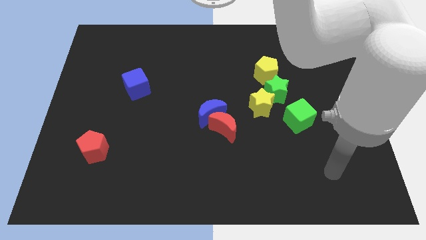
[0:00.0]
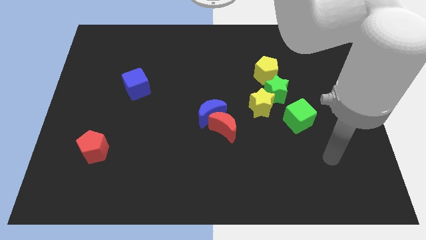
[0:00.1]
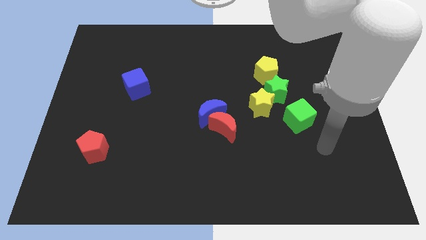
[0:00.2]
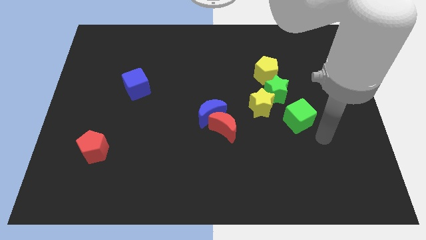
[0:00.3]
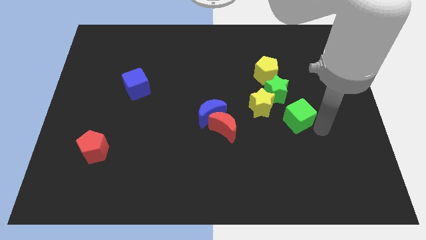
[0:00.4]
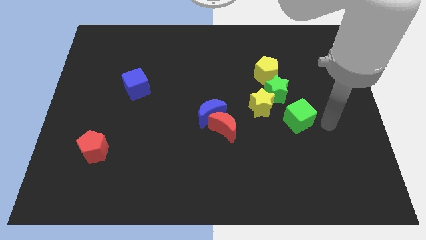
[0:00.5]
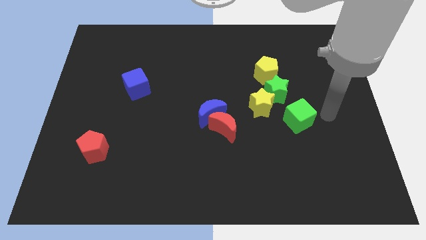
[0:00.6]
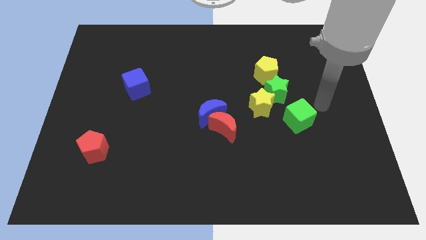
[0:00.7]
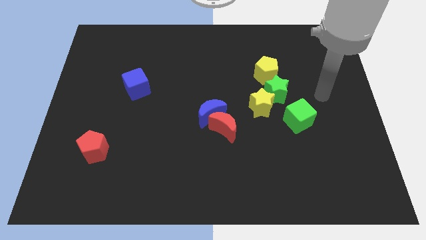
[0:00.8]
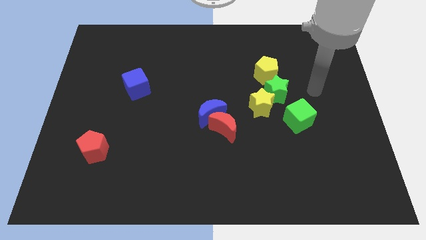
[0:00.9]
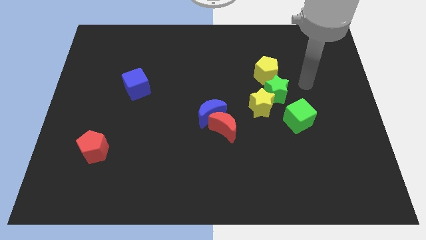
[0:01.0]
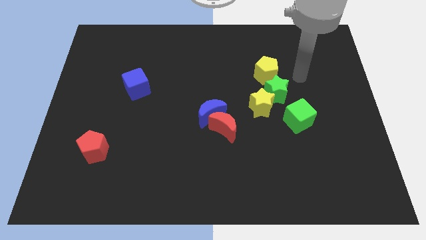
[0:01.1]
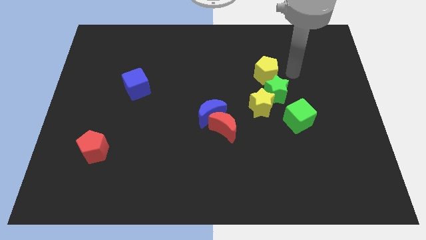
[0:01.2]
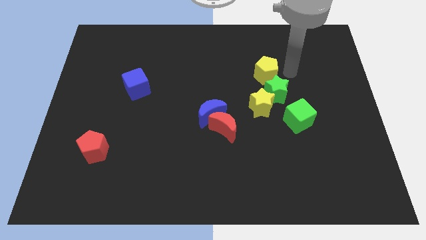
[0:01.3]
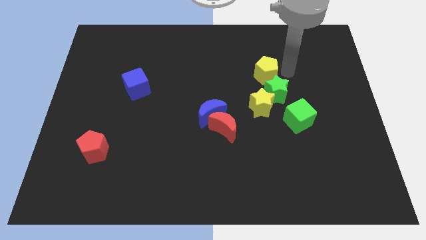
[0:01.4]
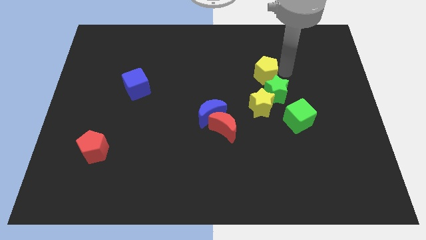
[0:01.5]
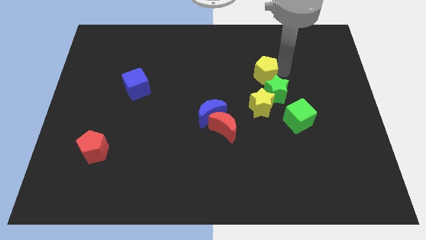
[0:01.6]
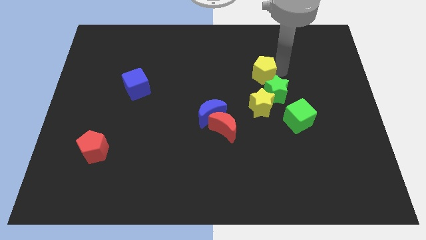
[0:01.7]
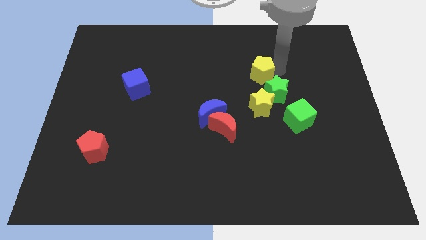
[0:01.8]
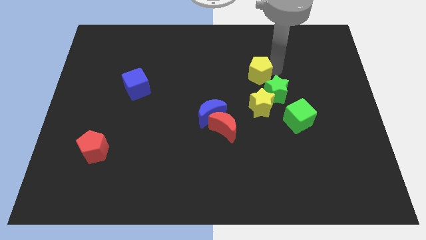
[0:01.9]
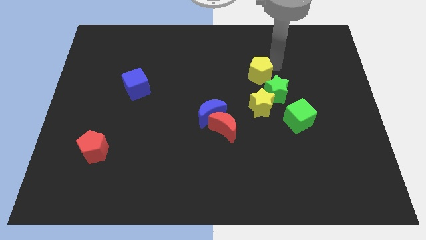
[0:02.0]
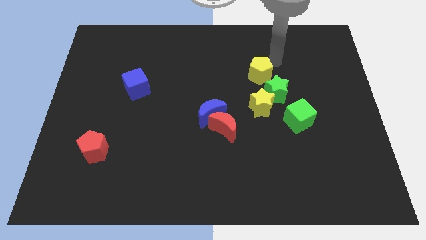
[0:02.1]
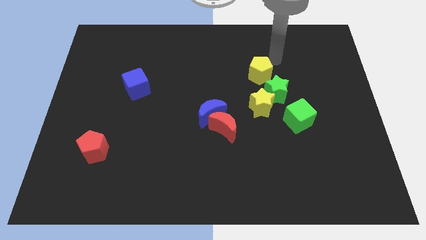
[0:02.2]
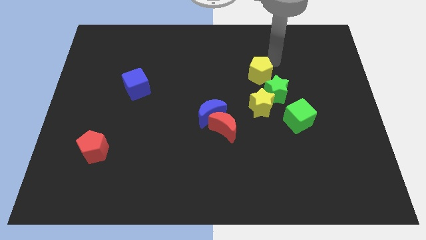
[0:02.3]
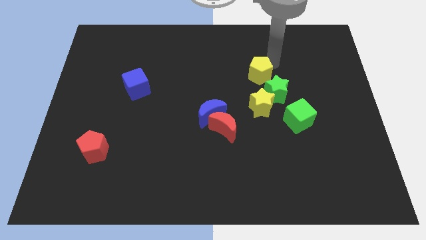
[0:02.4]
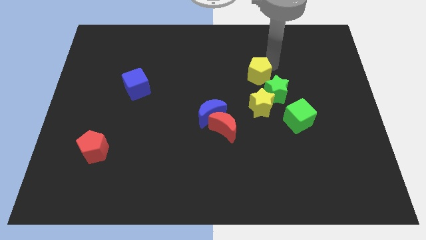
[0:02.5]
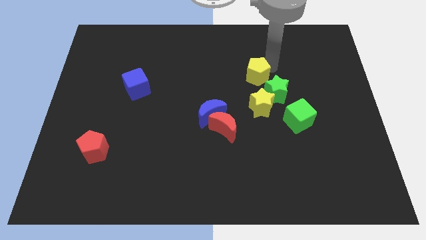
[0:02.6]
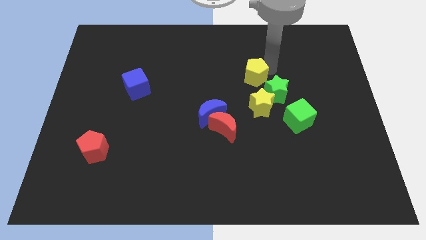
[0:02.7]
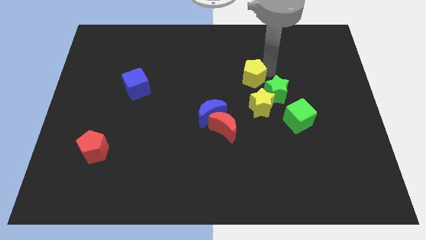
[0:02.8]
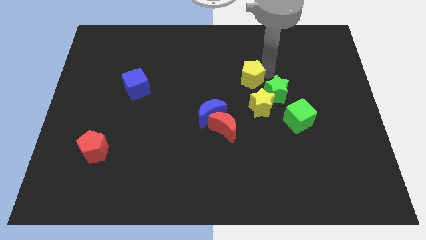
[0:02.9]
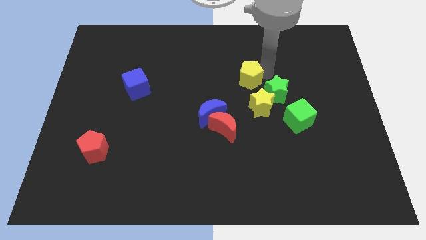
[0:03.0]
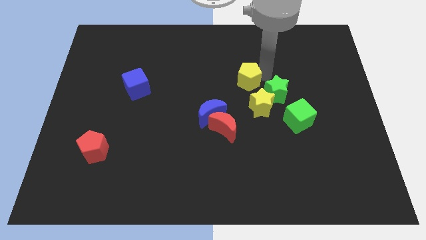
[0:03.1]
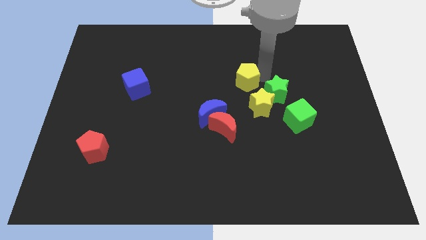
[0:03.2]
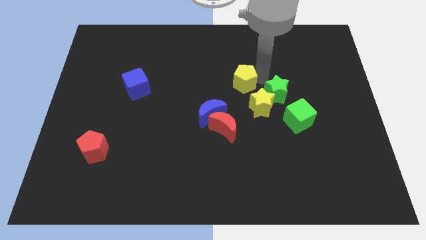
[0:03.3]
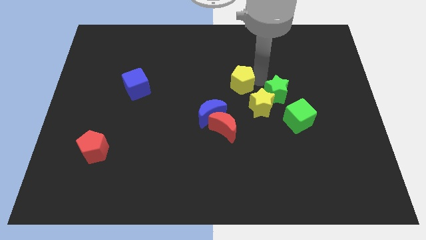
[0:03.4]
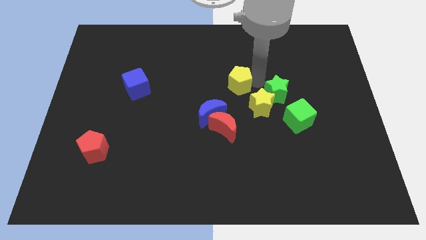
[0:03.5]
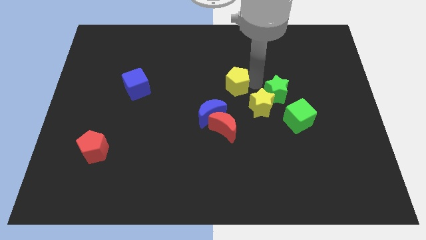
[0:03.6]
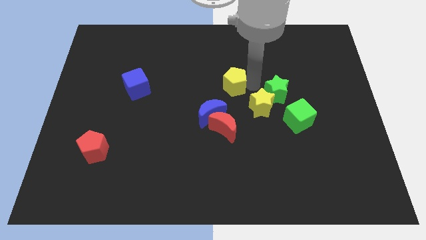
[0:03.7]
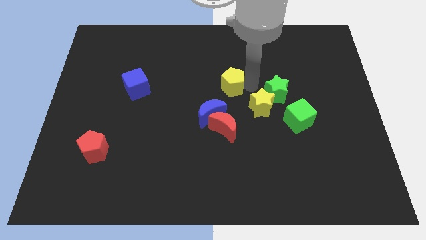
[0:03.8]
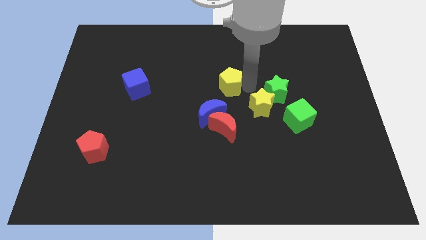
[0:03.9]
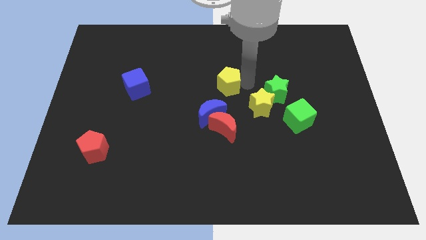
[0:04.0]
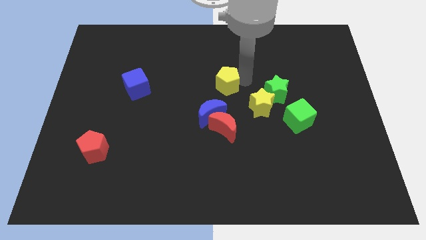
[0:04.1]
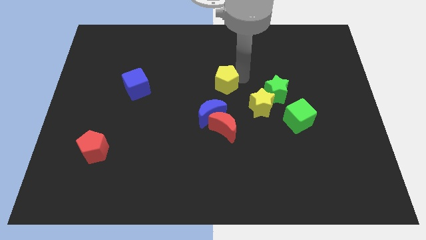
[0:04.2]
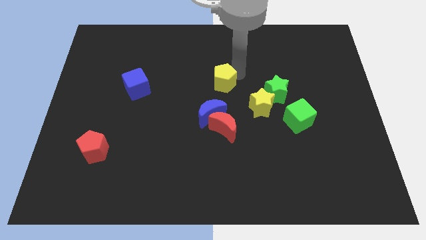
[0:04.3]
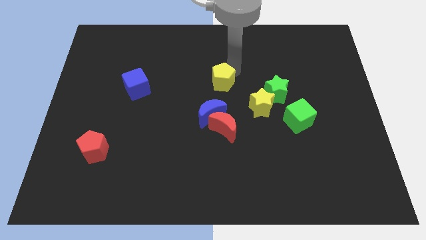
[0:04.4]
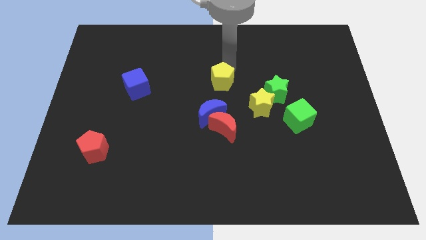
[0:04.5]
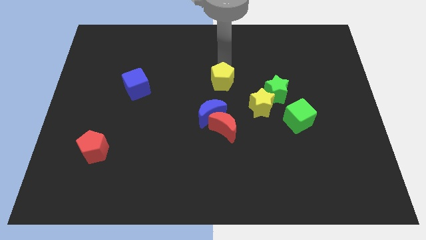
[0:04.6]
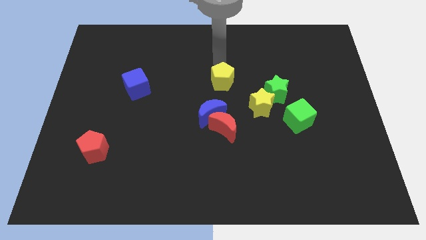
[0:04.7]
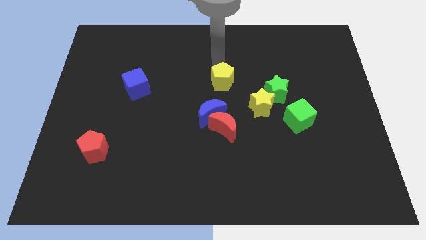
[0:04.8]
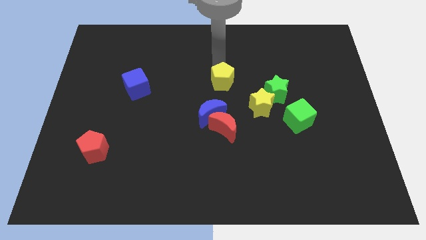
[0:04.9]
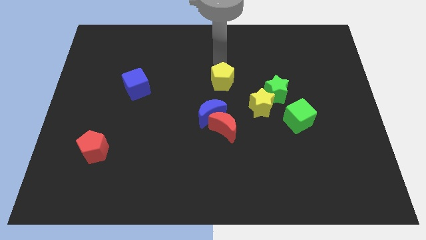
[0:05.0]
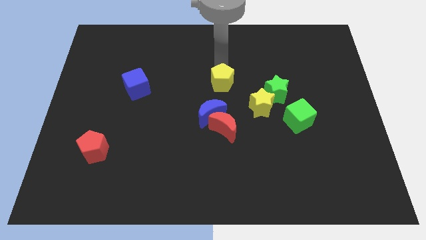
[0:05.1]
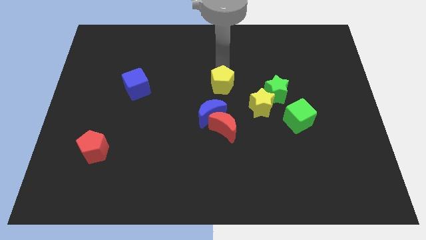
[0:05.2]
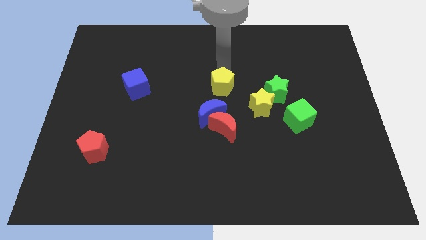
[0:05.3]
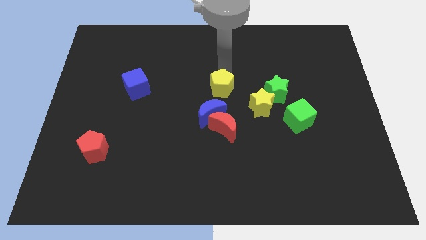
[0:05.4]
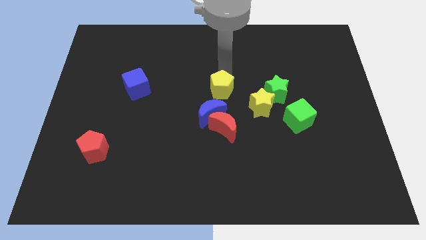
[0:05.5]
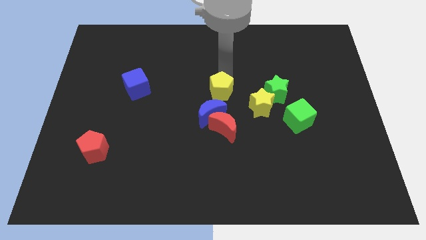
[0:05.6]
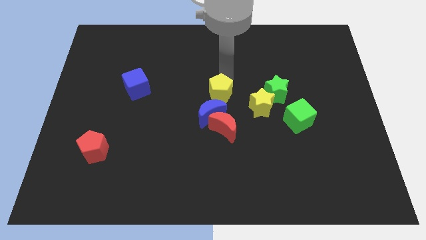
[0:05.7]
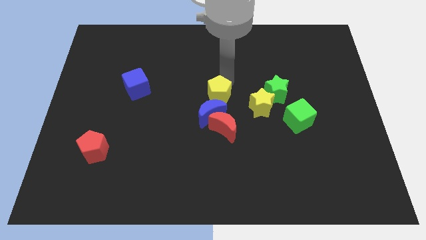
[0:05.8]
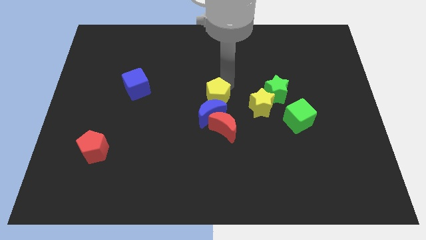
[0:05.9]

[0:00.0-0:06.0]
move the yellow pentagon to the blue moon

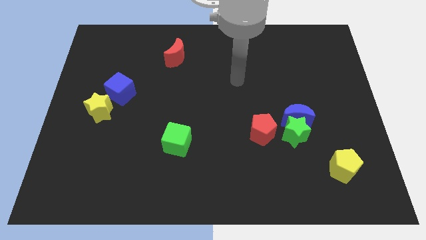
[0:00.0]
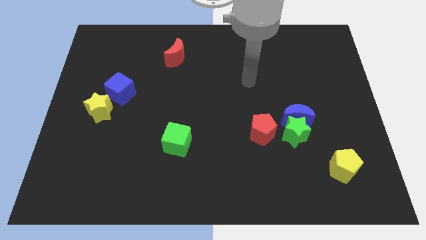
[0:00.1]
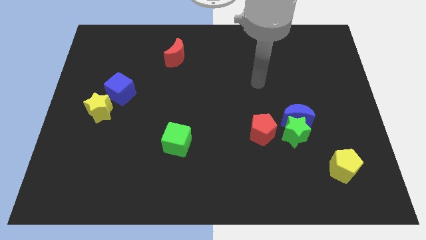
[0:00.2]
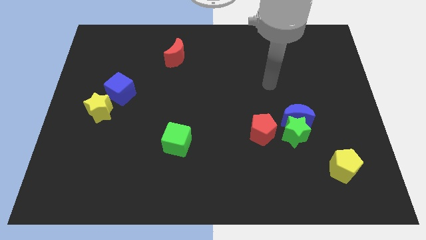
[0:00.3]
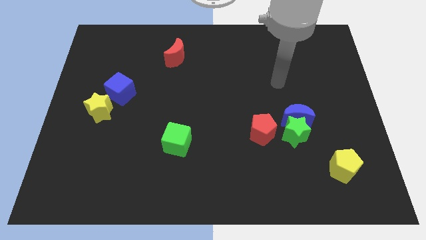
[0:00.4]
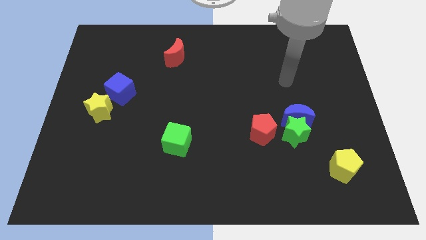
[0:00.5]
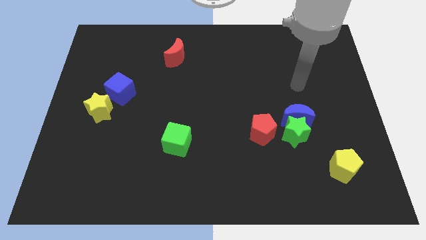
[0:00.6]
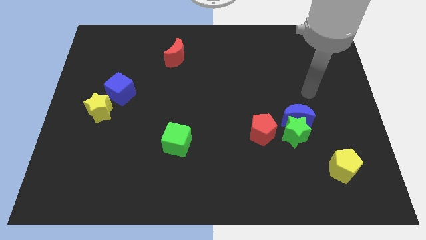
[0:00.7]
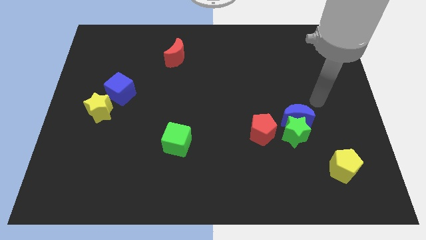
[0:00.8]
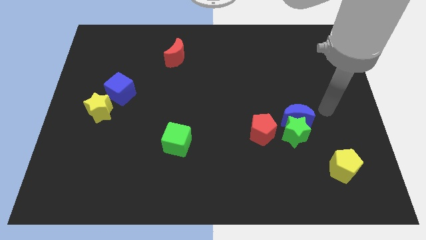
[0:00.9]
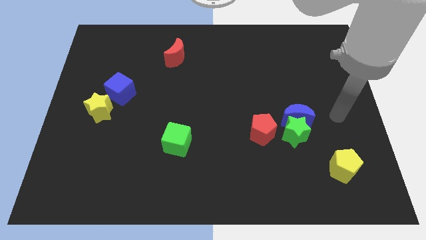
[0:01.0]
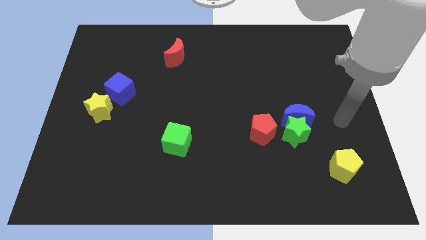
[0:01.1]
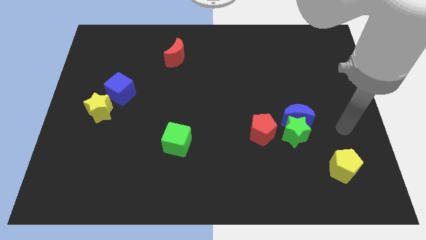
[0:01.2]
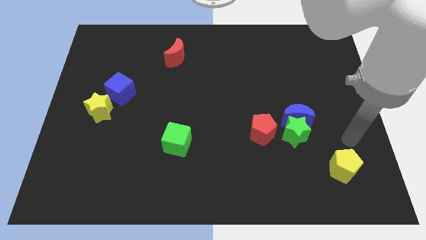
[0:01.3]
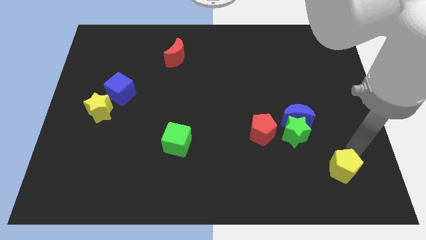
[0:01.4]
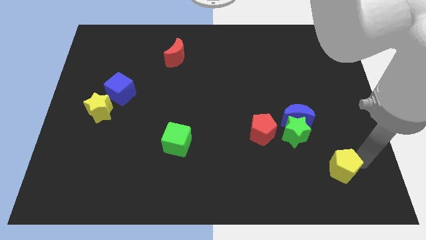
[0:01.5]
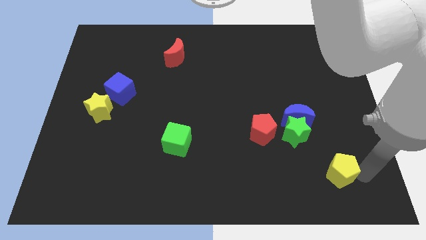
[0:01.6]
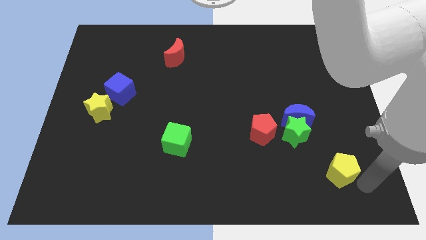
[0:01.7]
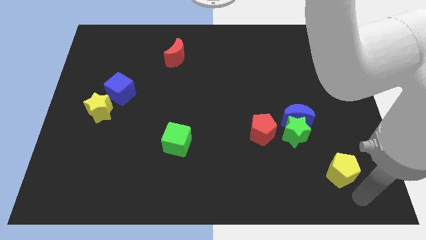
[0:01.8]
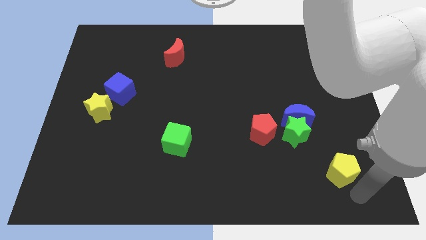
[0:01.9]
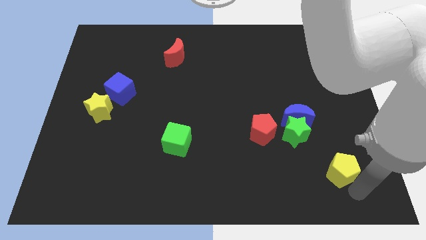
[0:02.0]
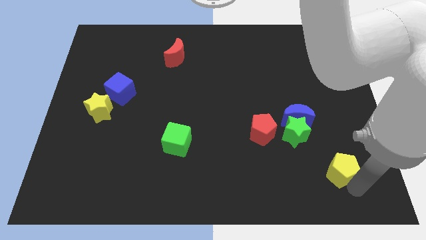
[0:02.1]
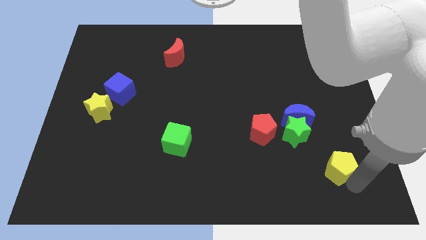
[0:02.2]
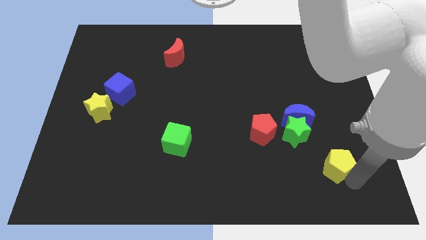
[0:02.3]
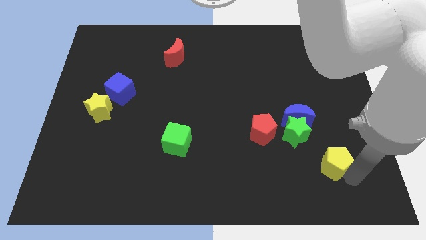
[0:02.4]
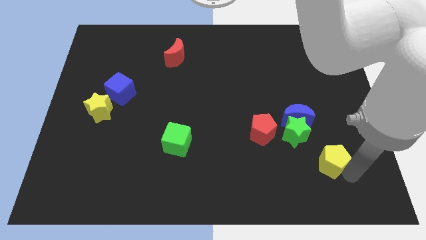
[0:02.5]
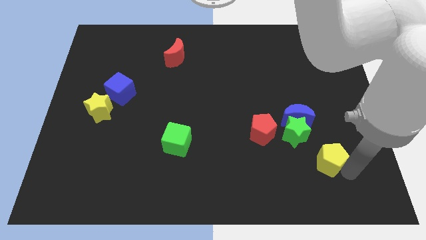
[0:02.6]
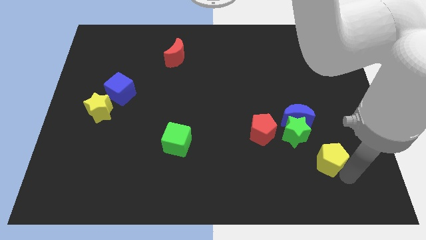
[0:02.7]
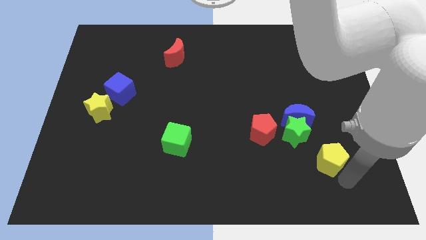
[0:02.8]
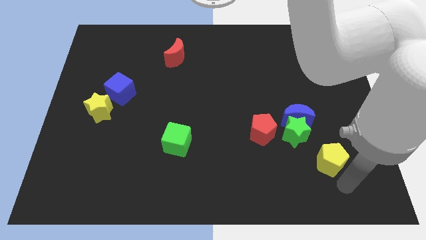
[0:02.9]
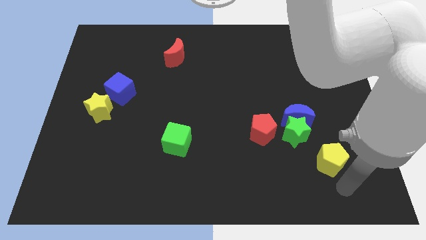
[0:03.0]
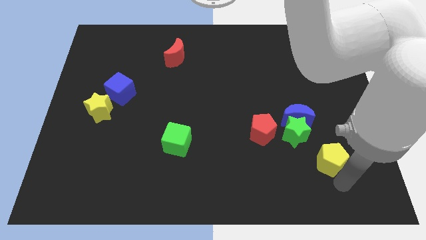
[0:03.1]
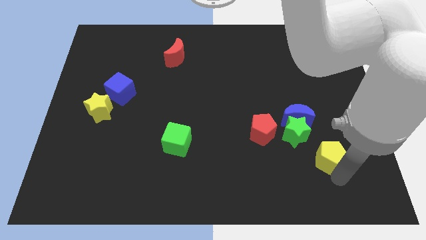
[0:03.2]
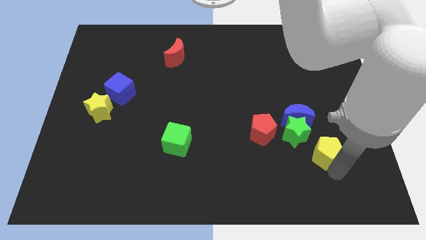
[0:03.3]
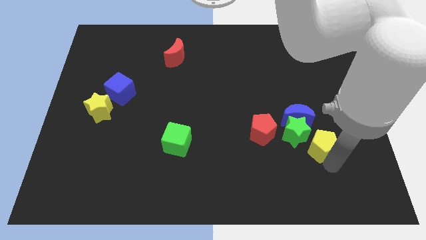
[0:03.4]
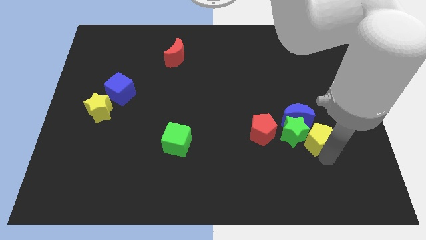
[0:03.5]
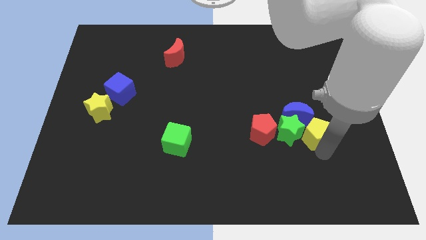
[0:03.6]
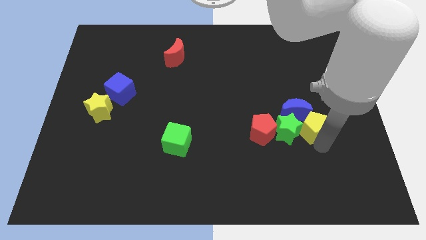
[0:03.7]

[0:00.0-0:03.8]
put the yellow pentagon to the blue moon
